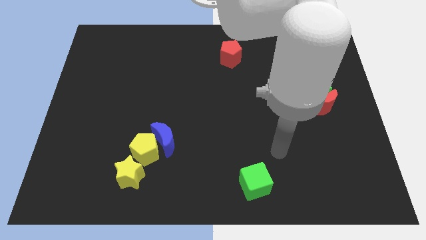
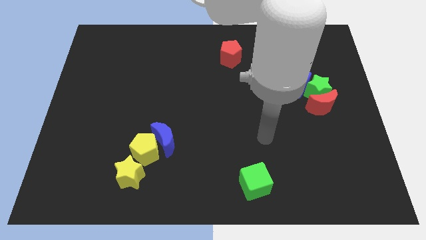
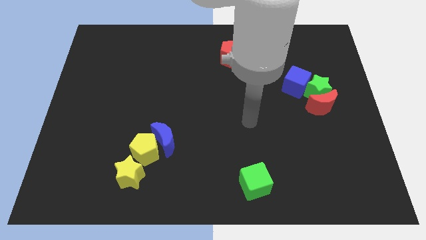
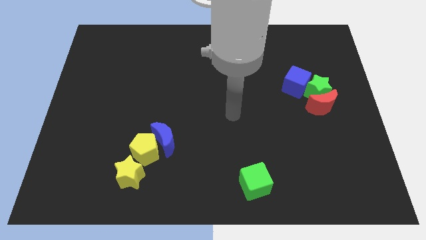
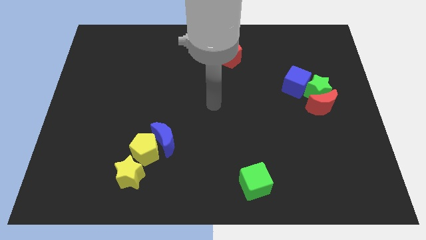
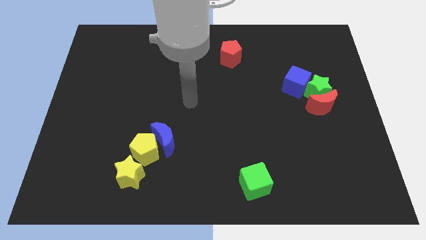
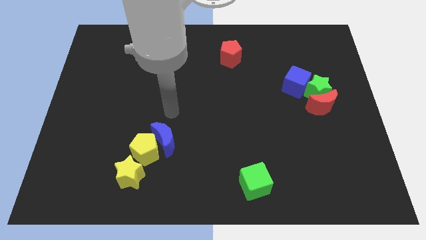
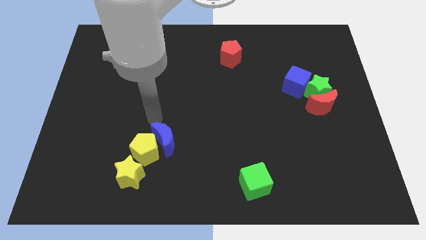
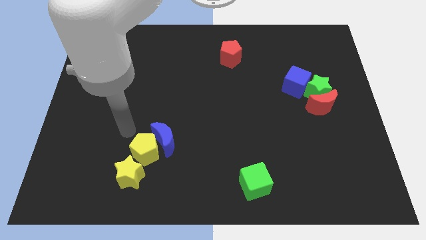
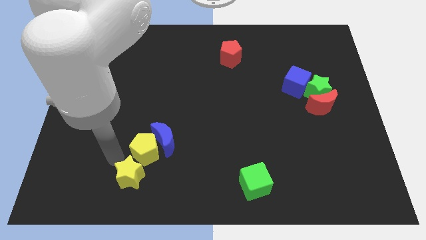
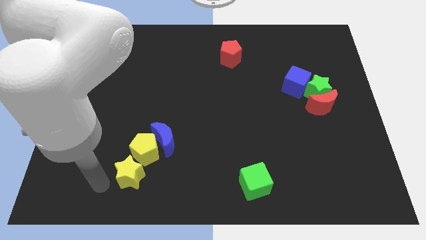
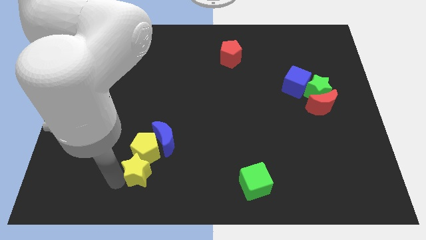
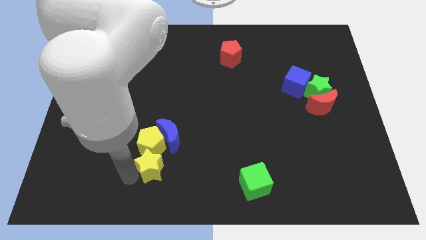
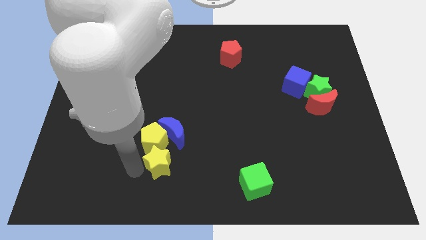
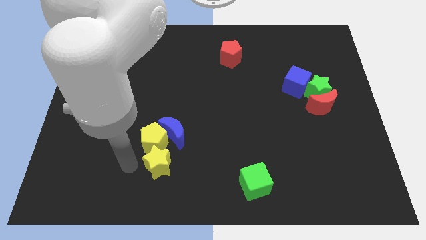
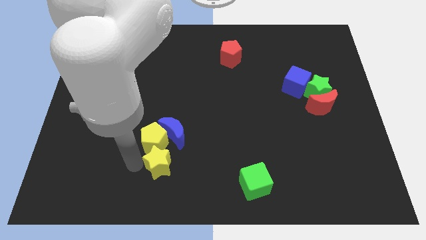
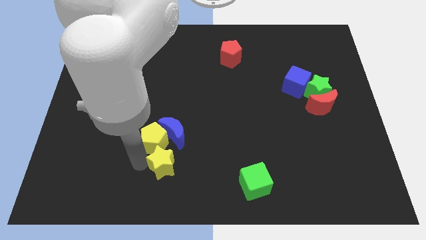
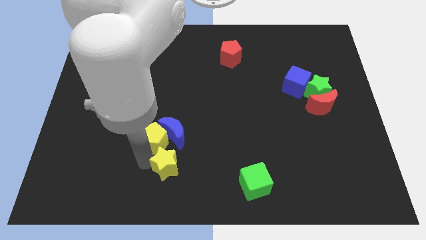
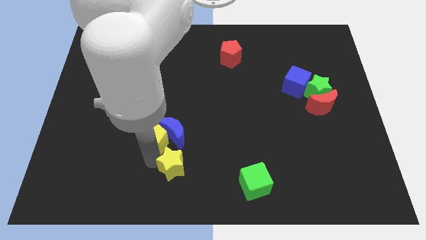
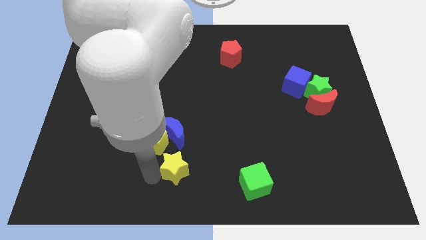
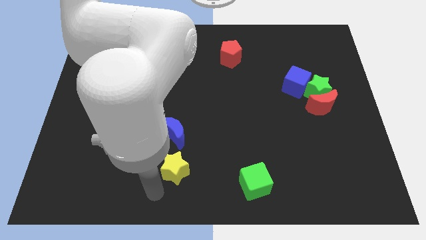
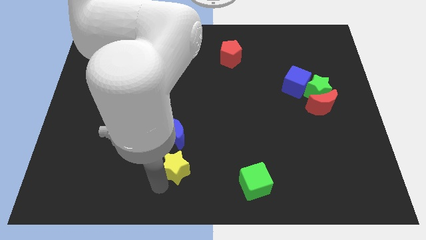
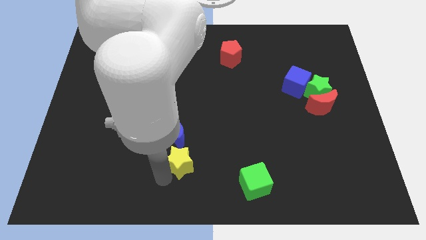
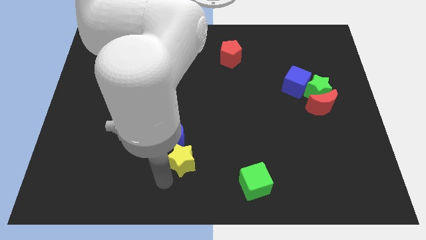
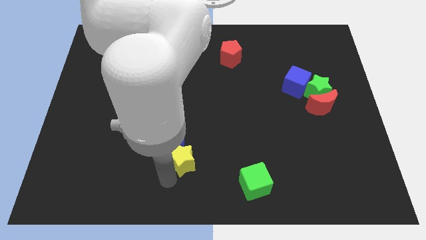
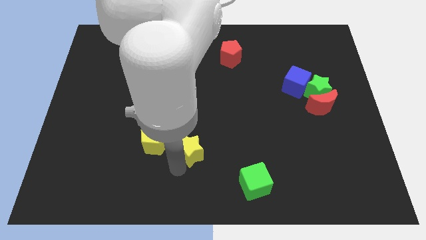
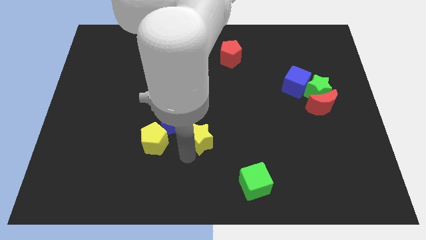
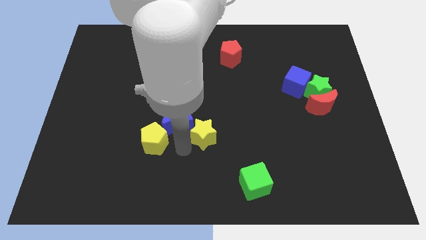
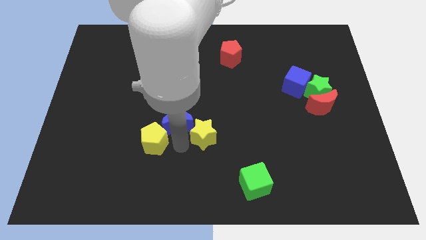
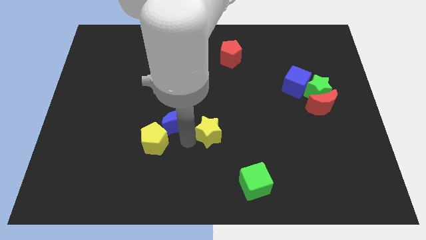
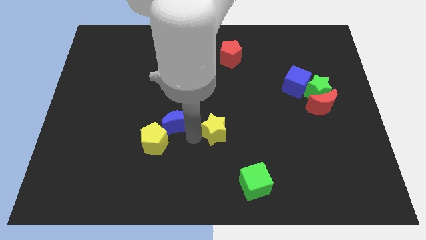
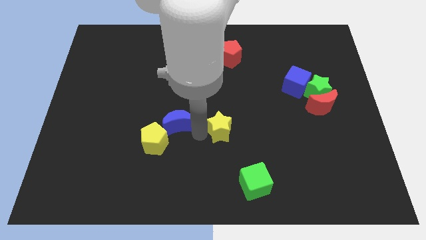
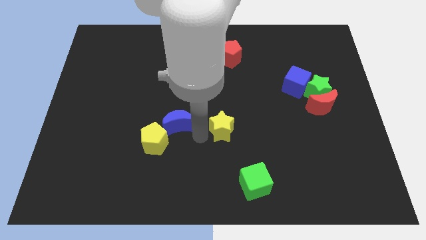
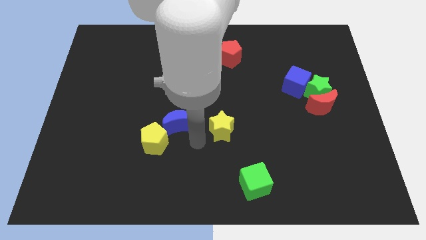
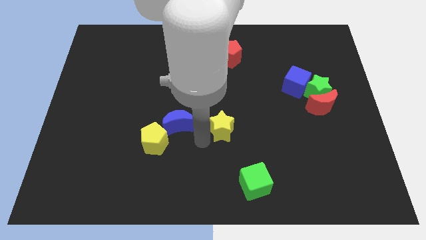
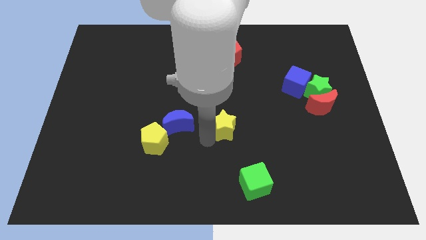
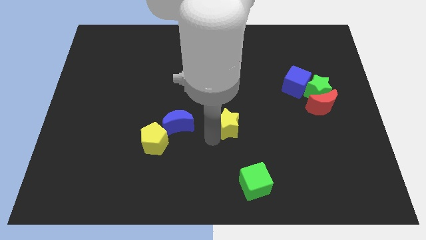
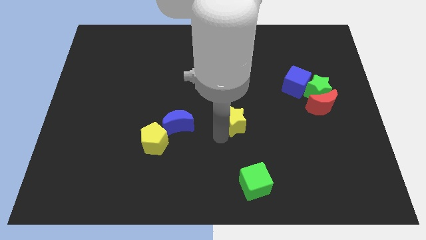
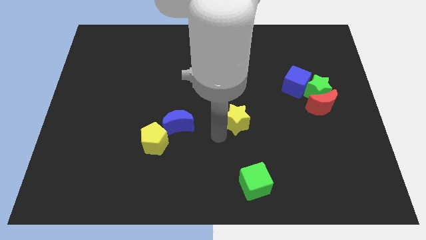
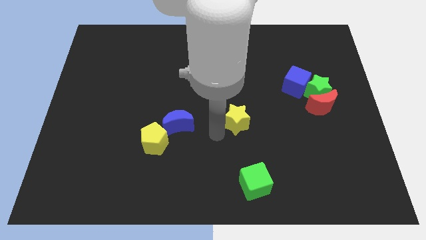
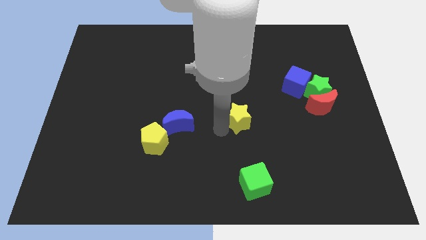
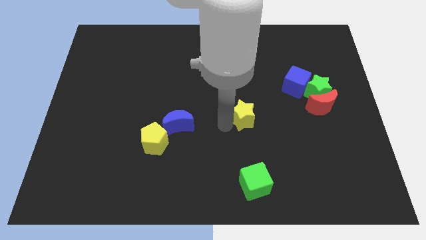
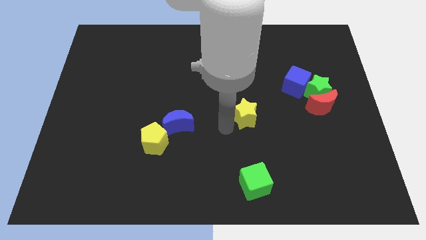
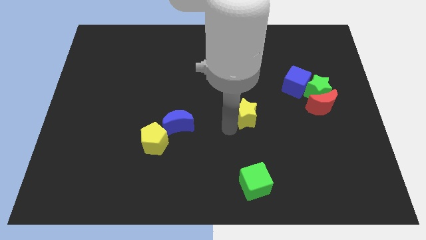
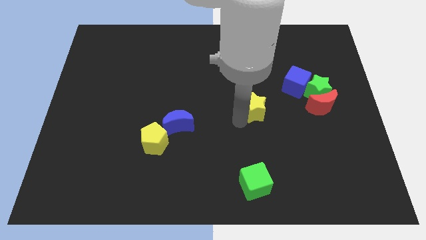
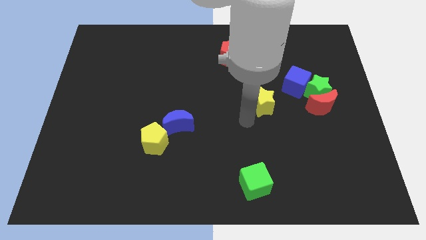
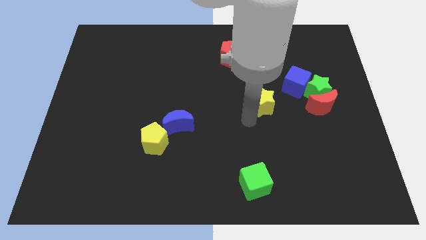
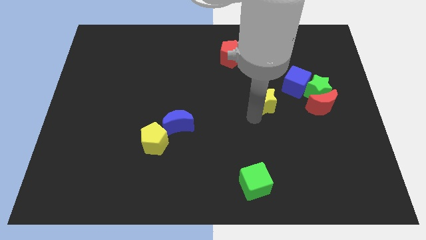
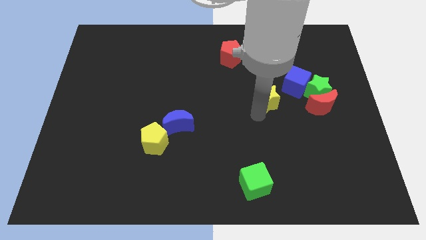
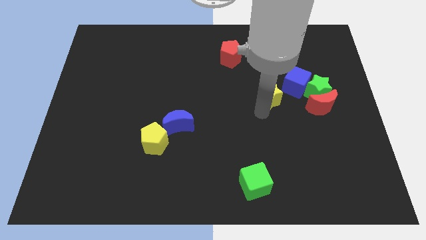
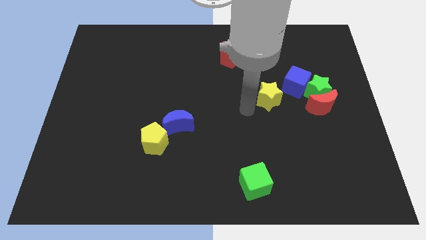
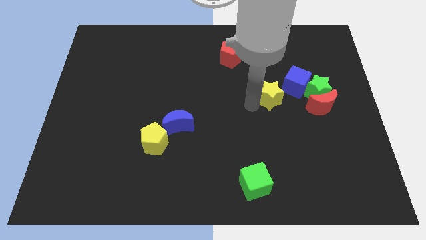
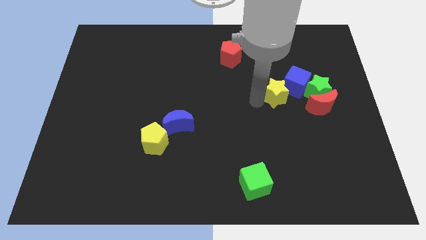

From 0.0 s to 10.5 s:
slide the yellow star to the blue cube

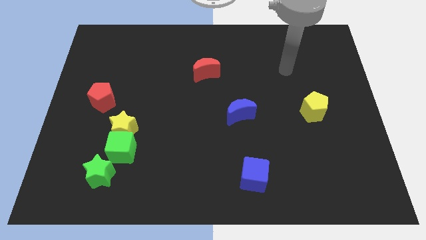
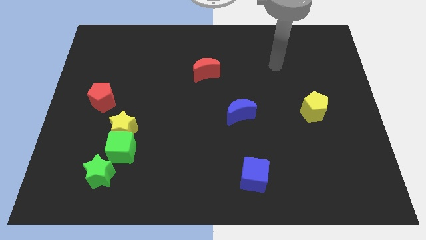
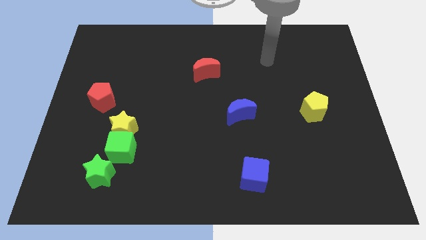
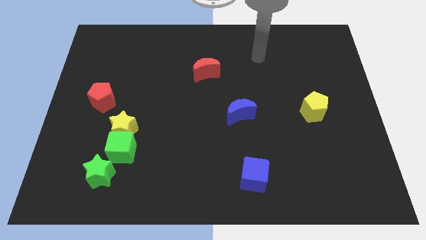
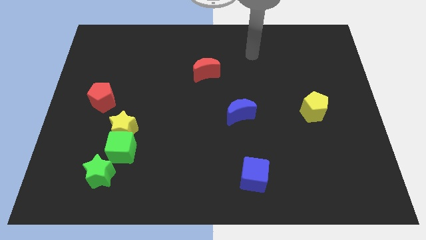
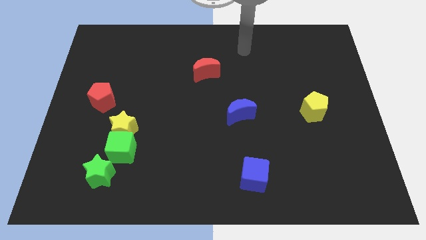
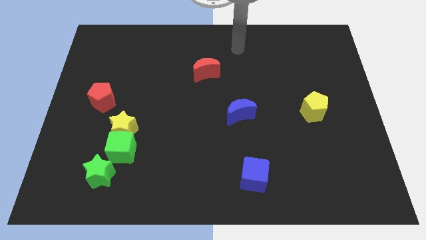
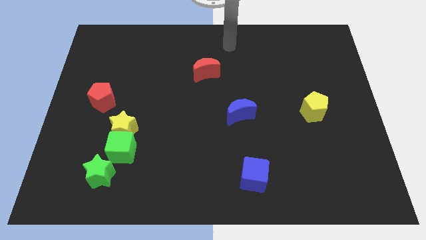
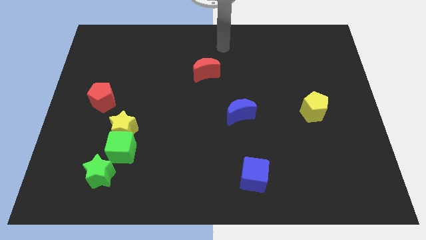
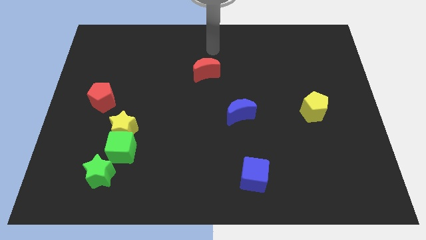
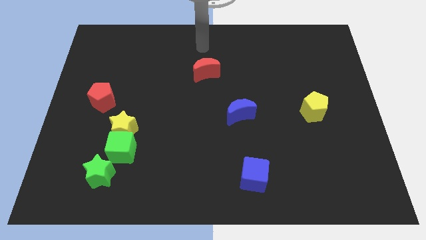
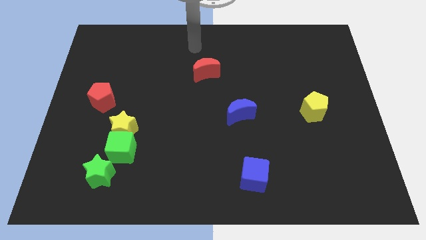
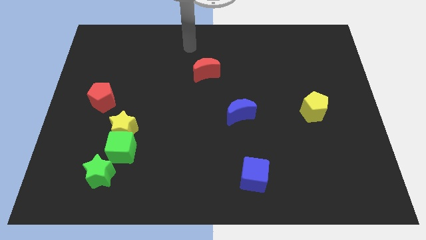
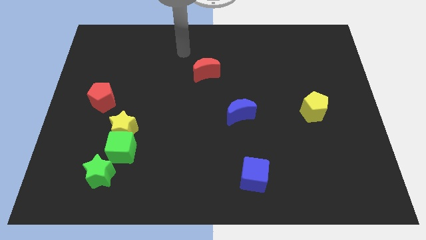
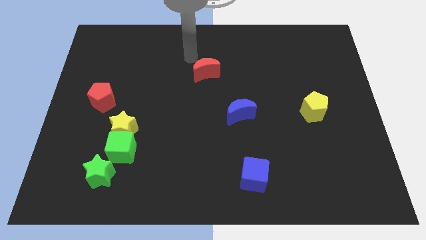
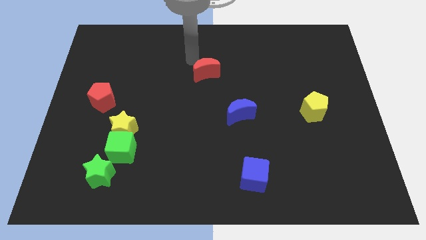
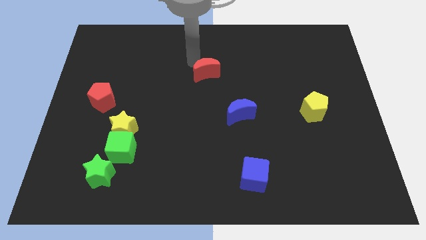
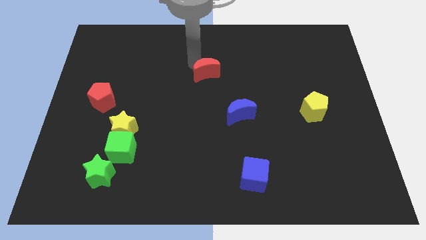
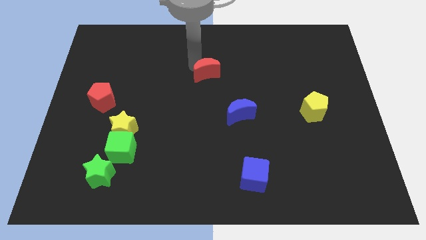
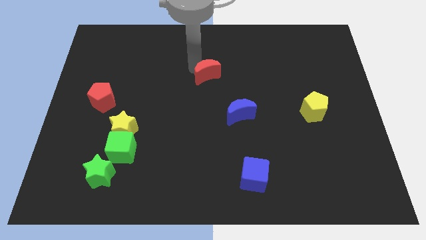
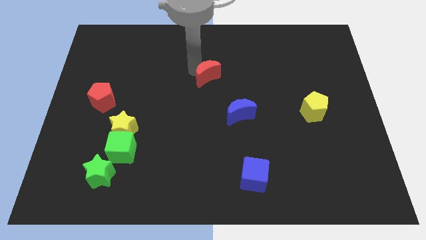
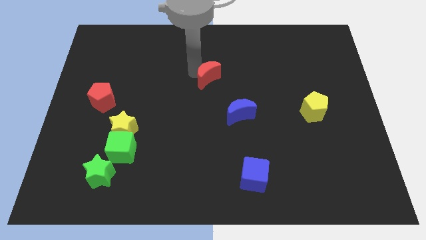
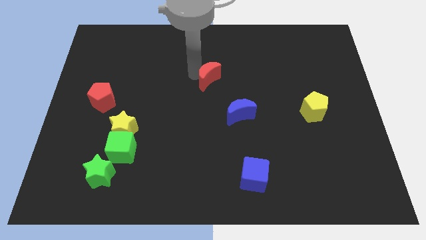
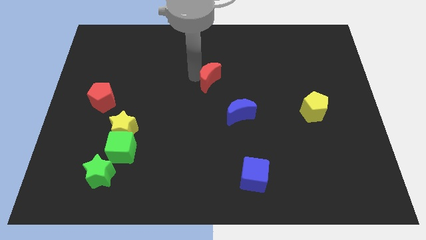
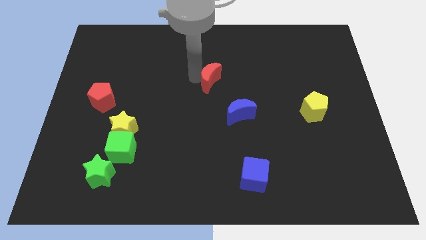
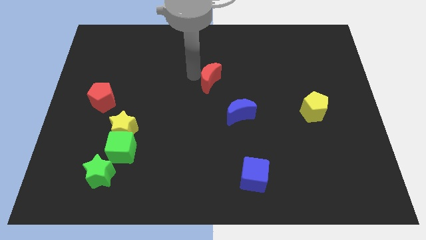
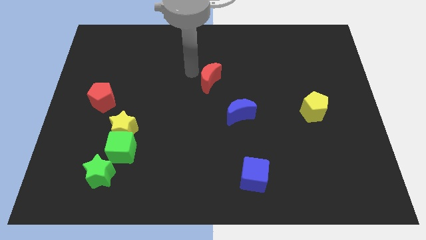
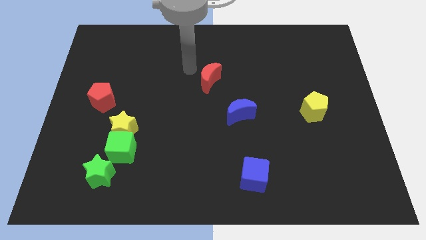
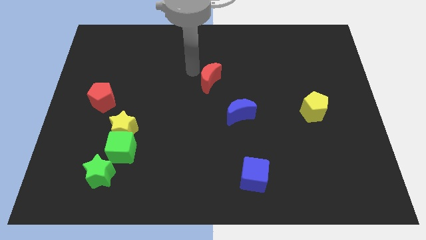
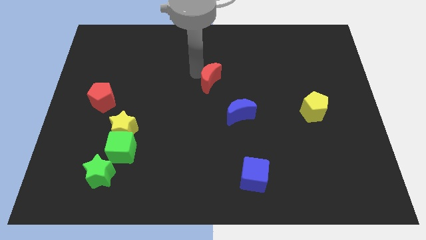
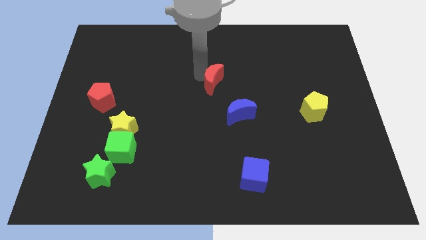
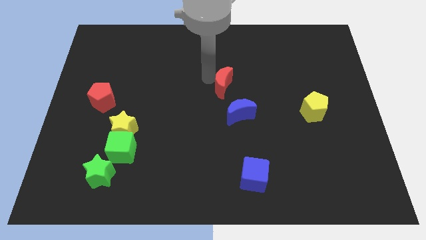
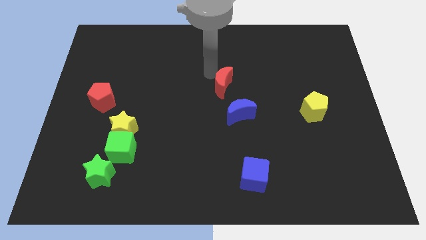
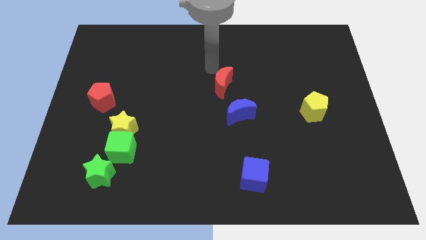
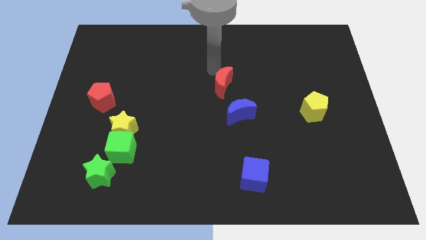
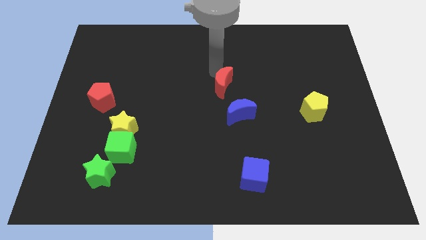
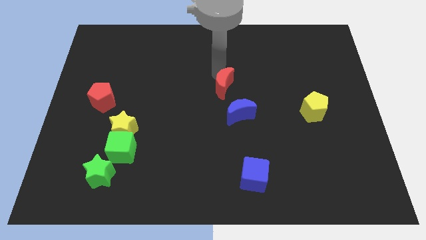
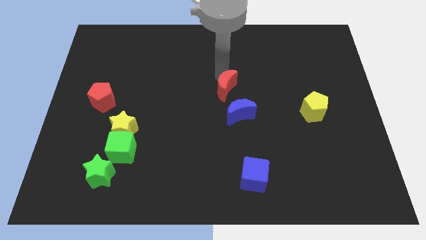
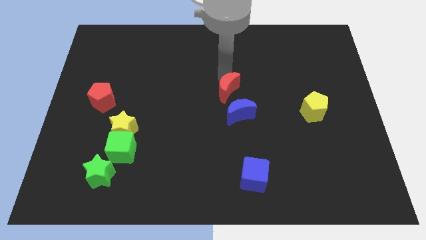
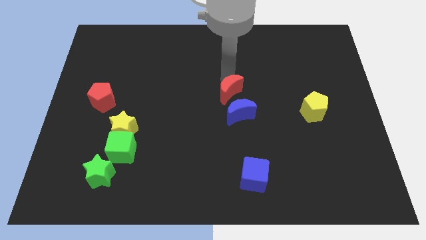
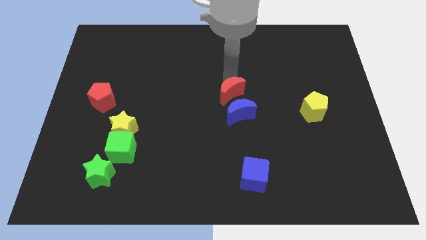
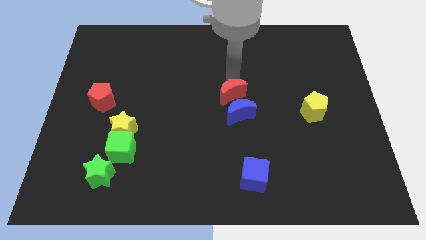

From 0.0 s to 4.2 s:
move the red moon next to the blue moon
